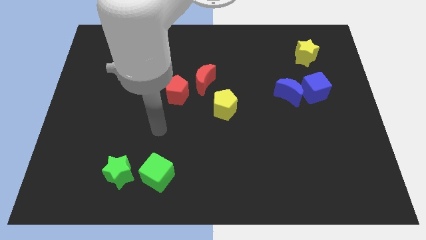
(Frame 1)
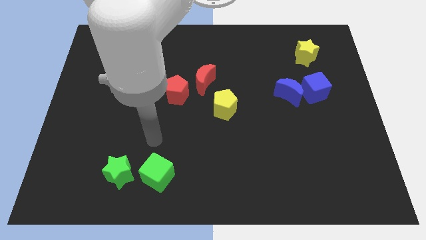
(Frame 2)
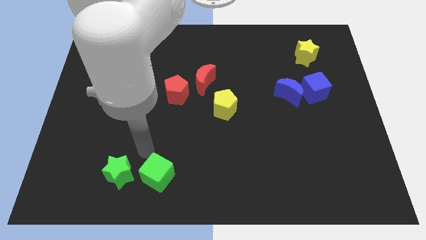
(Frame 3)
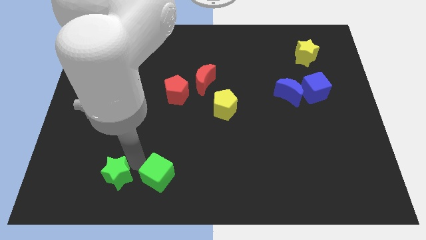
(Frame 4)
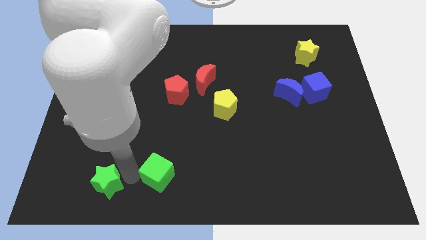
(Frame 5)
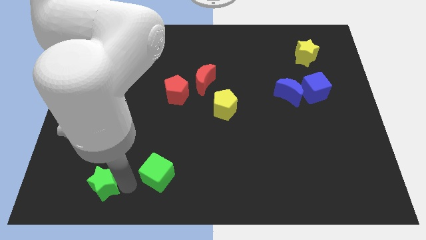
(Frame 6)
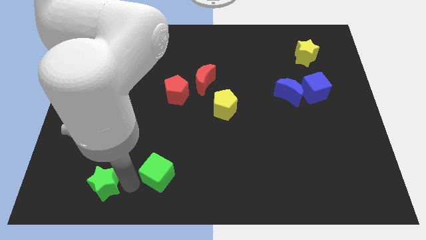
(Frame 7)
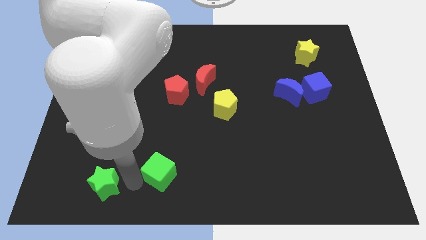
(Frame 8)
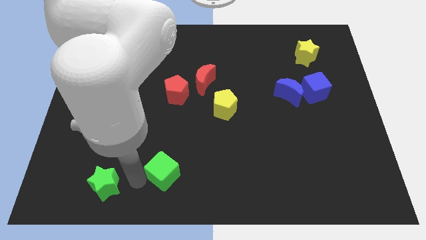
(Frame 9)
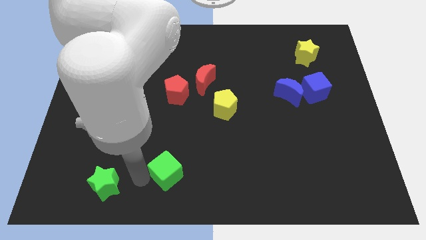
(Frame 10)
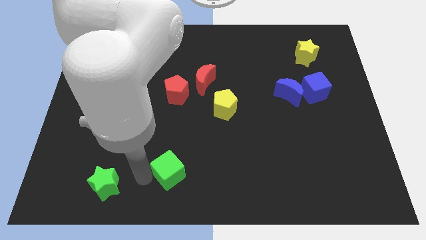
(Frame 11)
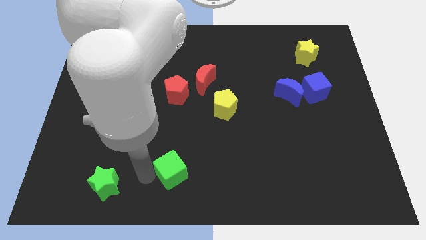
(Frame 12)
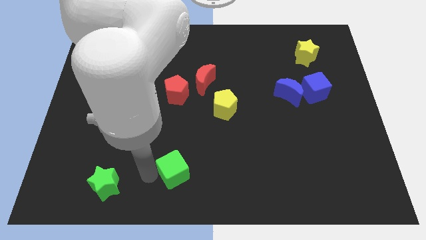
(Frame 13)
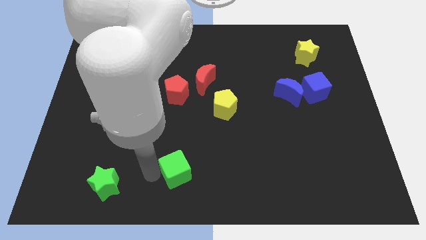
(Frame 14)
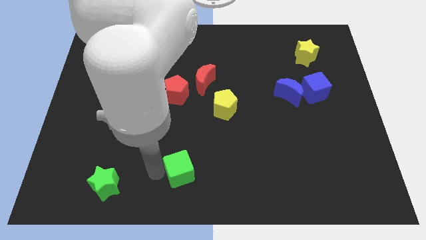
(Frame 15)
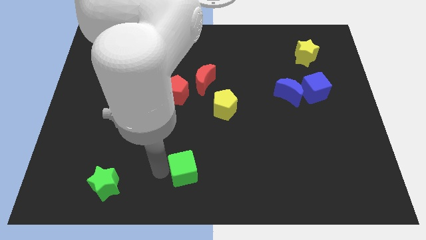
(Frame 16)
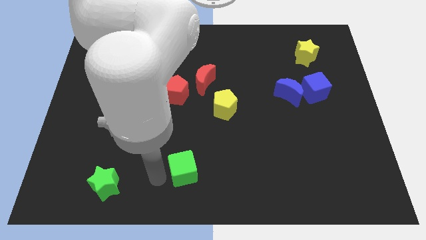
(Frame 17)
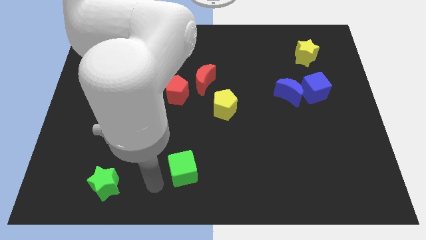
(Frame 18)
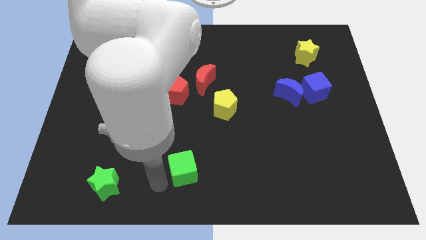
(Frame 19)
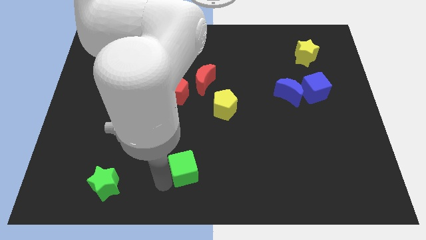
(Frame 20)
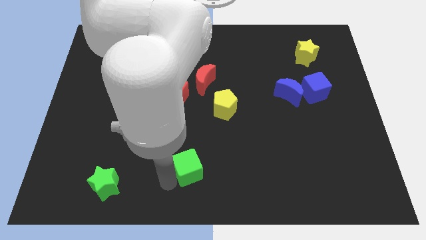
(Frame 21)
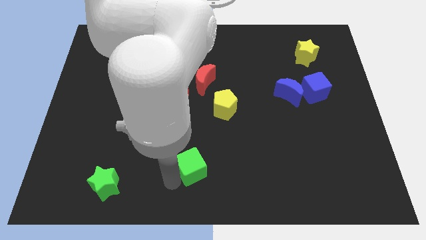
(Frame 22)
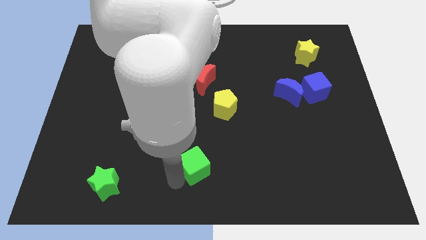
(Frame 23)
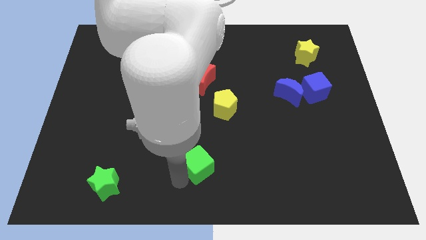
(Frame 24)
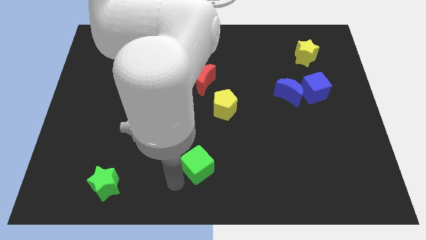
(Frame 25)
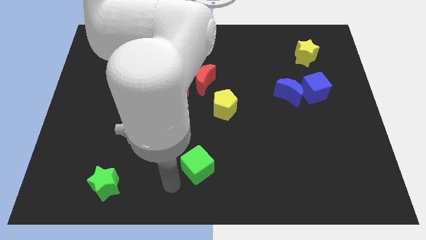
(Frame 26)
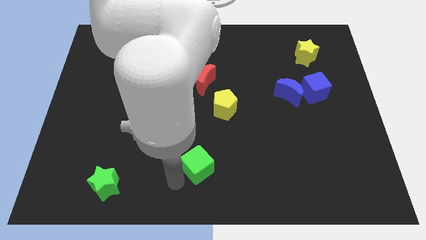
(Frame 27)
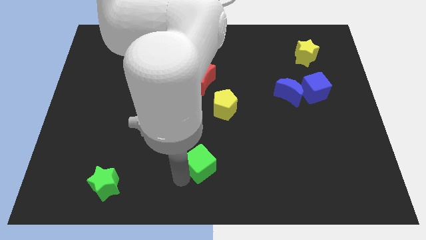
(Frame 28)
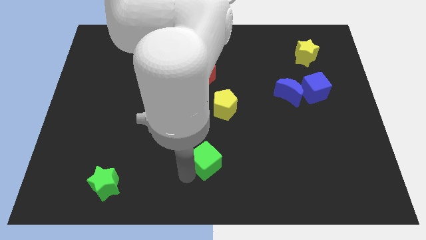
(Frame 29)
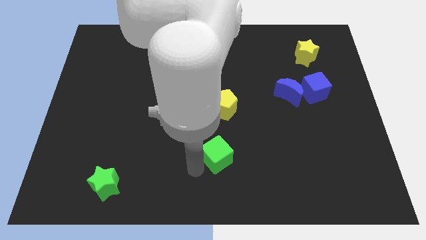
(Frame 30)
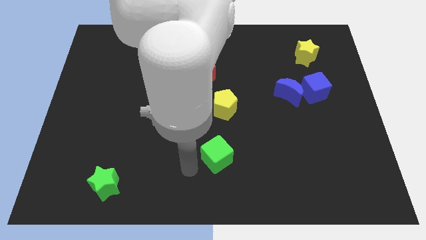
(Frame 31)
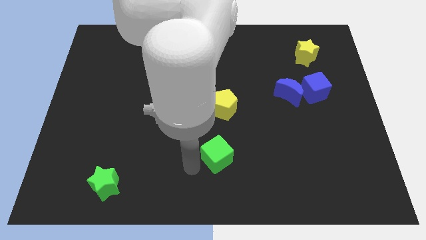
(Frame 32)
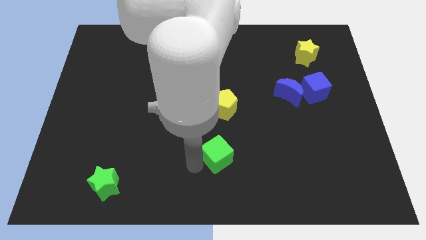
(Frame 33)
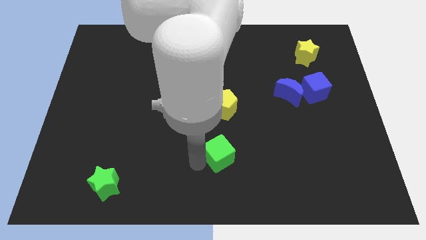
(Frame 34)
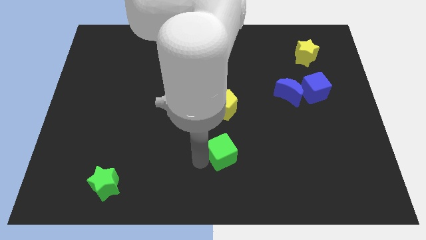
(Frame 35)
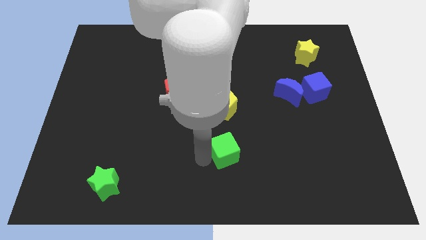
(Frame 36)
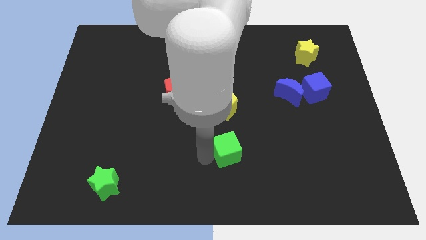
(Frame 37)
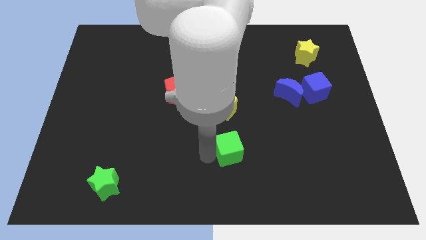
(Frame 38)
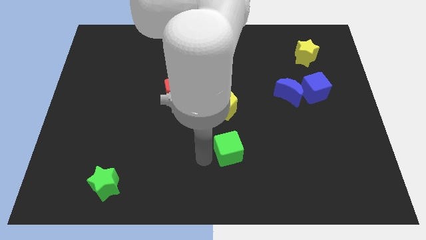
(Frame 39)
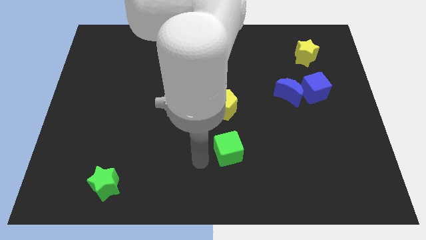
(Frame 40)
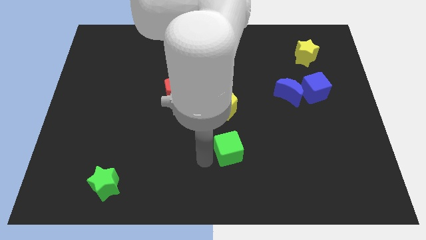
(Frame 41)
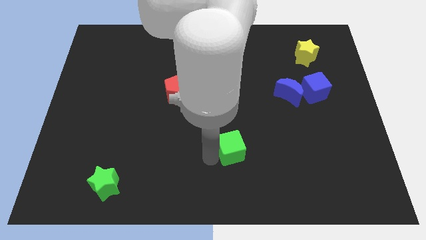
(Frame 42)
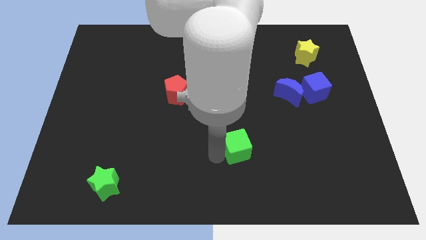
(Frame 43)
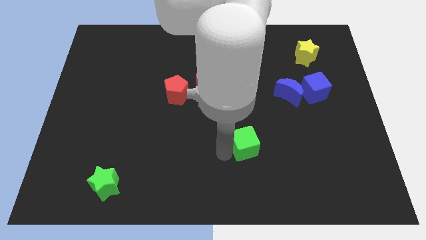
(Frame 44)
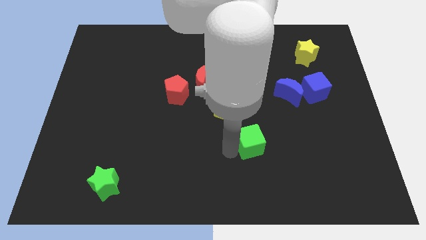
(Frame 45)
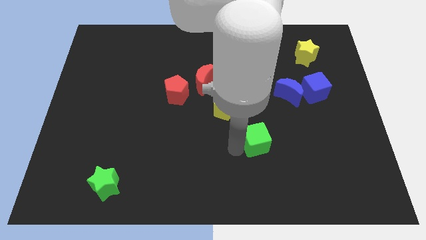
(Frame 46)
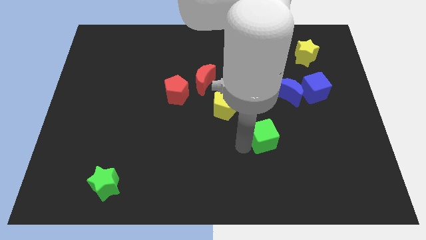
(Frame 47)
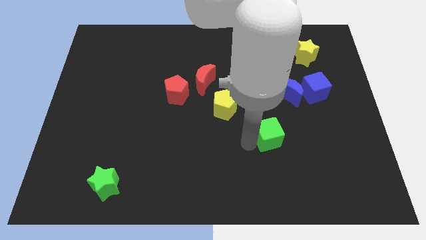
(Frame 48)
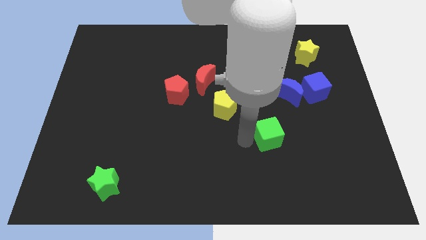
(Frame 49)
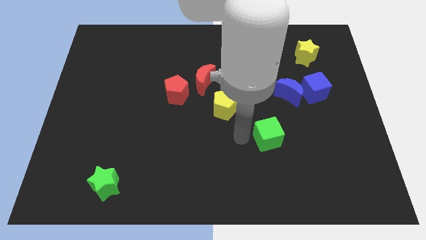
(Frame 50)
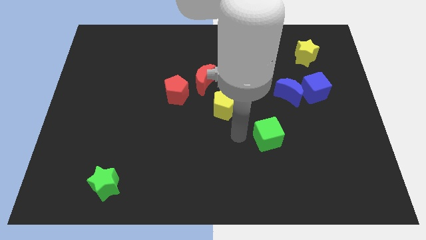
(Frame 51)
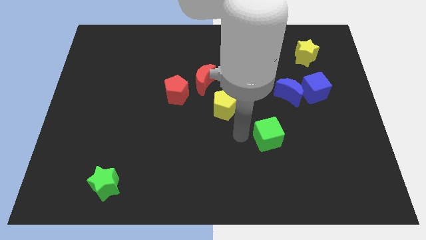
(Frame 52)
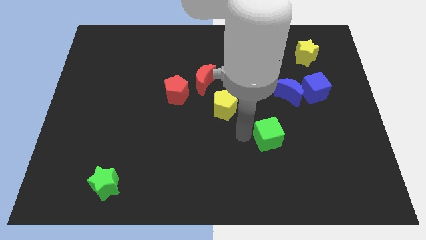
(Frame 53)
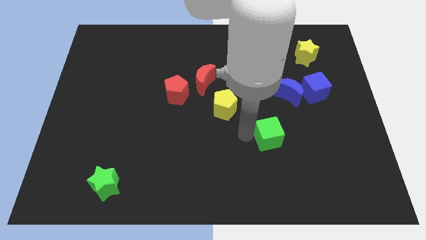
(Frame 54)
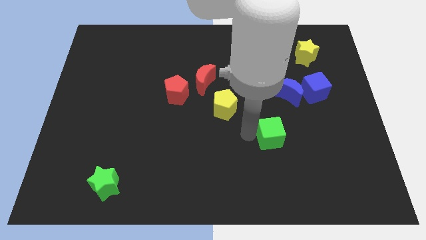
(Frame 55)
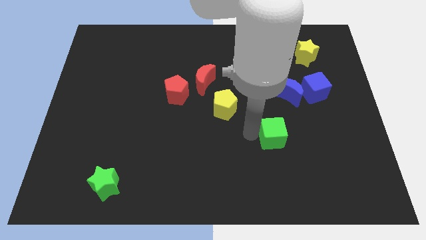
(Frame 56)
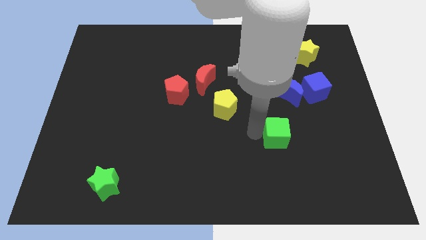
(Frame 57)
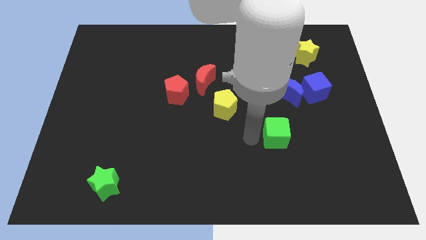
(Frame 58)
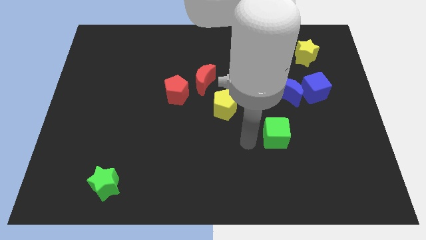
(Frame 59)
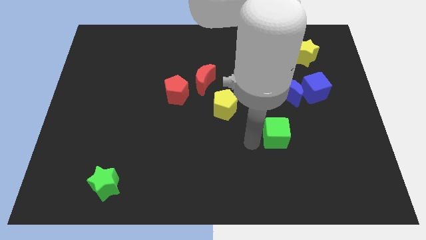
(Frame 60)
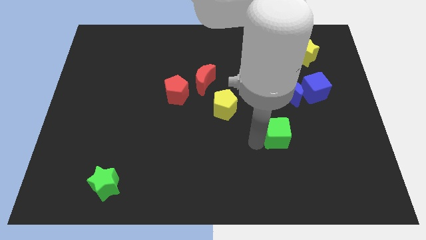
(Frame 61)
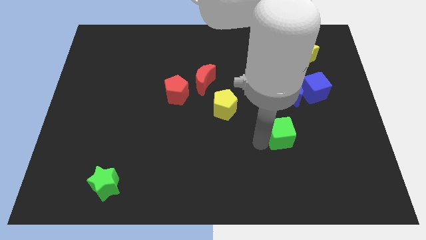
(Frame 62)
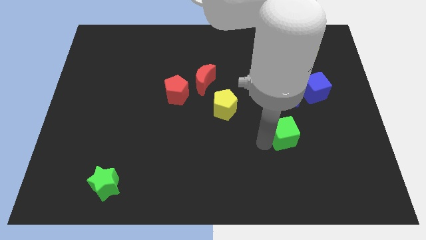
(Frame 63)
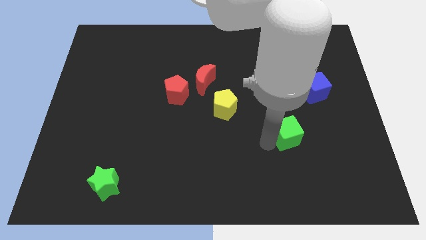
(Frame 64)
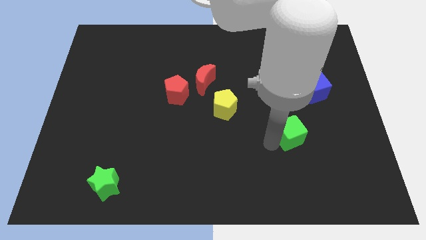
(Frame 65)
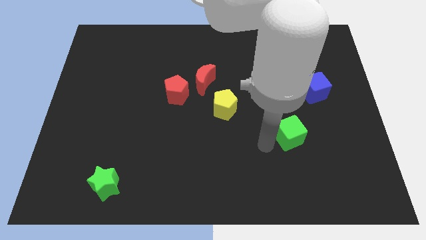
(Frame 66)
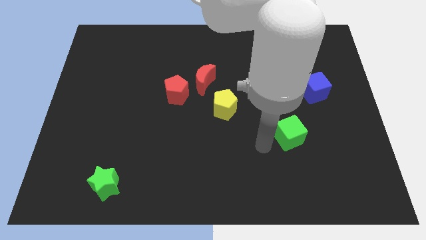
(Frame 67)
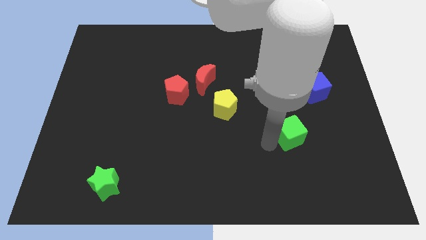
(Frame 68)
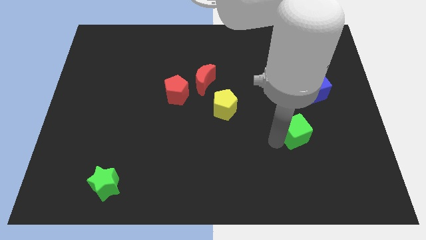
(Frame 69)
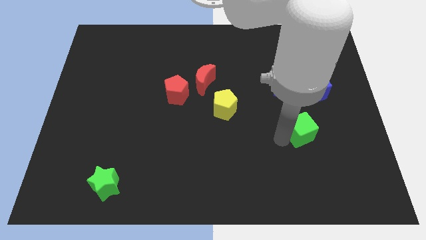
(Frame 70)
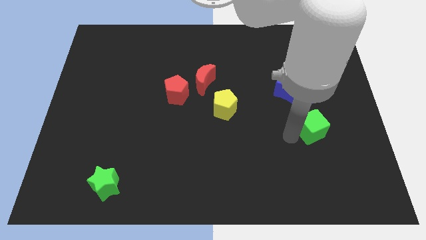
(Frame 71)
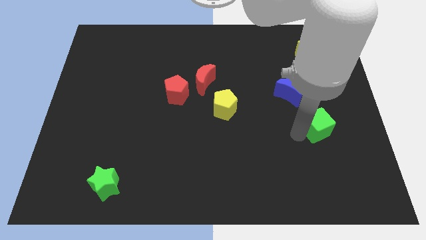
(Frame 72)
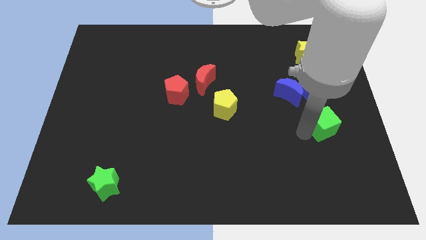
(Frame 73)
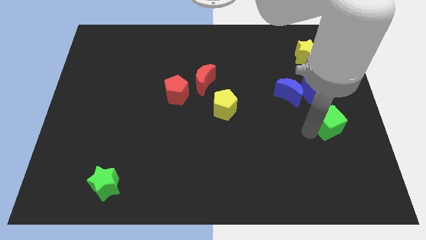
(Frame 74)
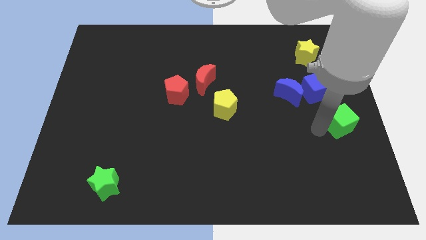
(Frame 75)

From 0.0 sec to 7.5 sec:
put the green cube to the right side
